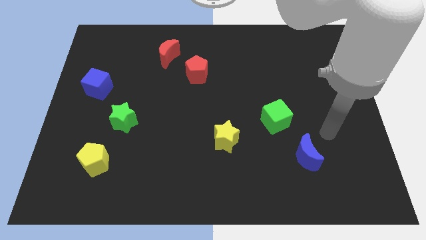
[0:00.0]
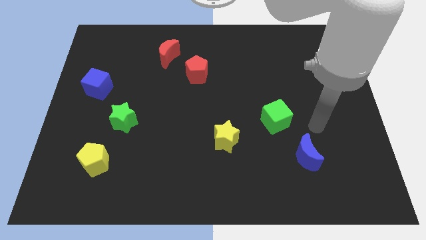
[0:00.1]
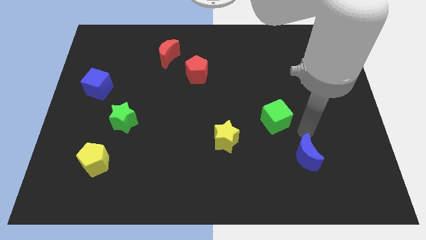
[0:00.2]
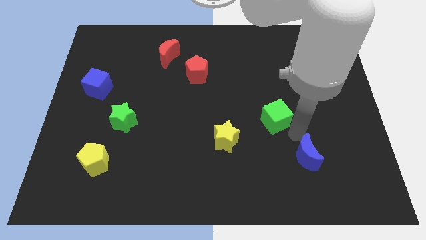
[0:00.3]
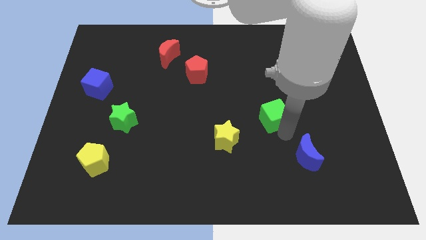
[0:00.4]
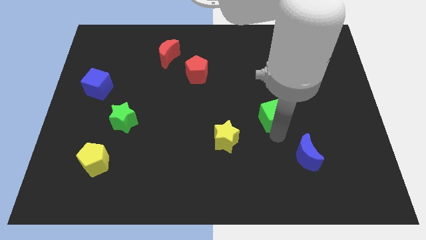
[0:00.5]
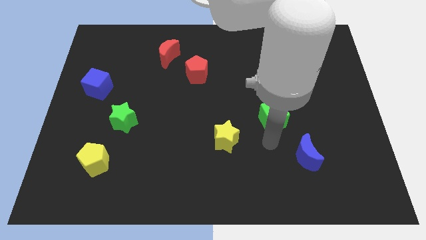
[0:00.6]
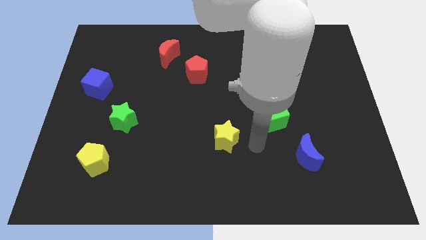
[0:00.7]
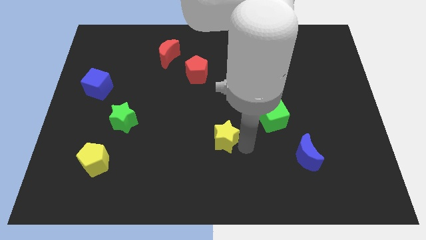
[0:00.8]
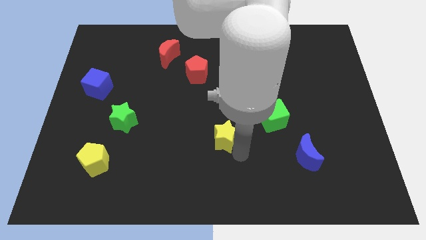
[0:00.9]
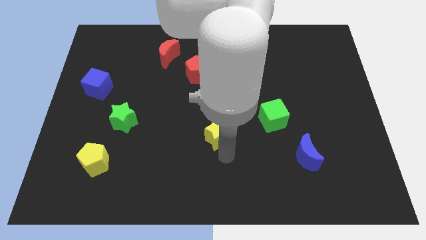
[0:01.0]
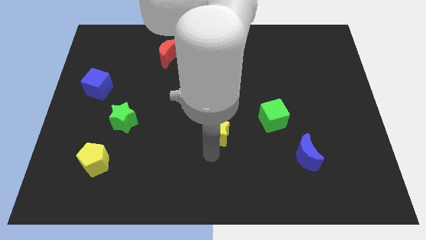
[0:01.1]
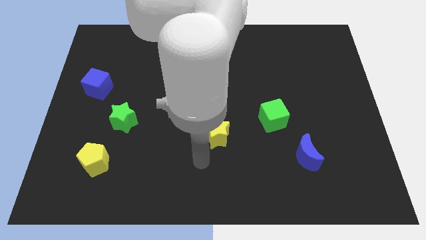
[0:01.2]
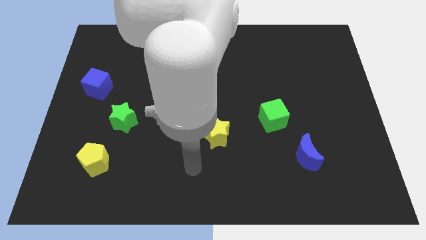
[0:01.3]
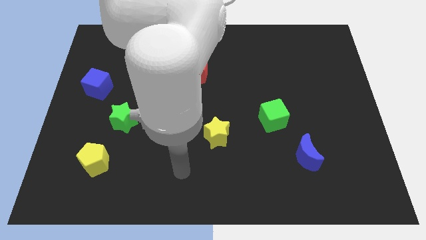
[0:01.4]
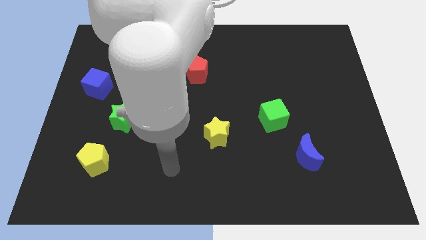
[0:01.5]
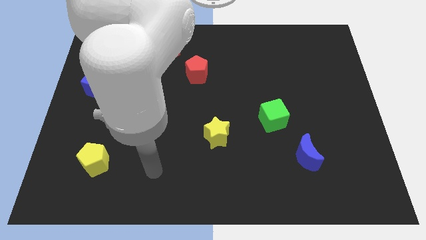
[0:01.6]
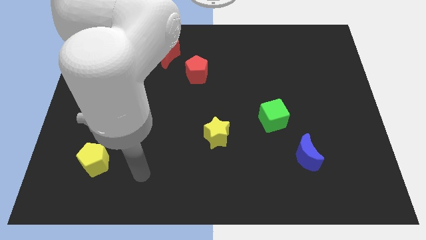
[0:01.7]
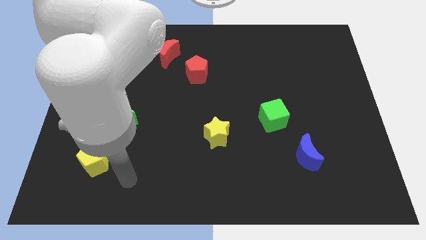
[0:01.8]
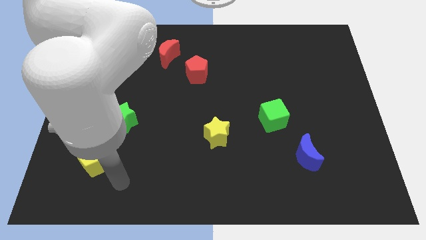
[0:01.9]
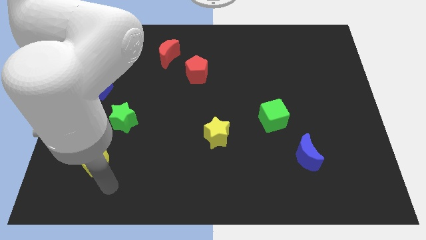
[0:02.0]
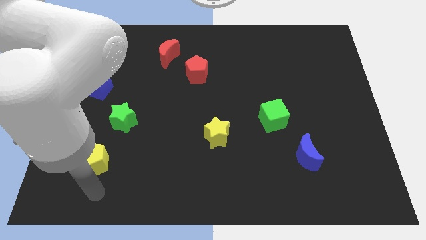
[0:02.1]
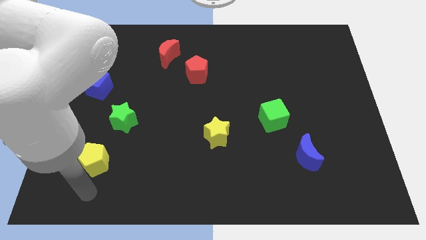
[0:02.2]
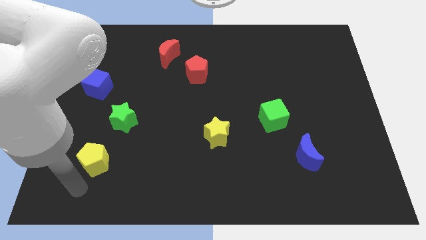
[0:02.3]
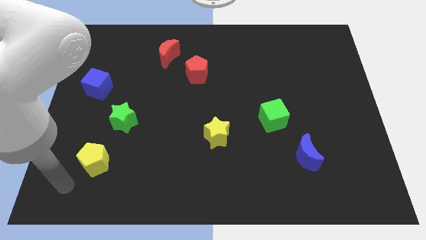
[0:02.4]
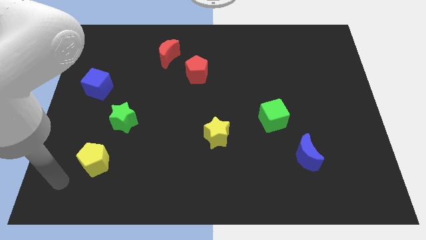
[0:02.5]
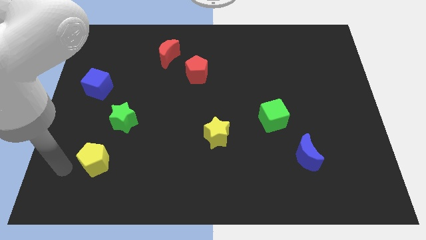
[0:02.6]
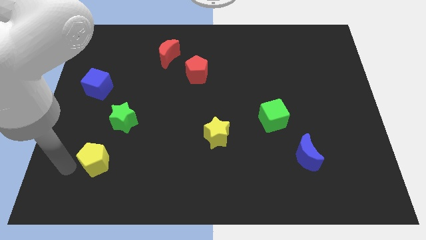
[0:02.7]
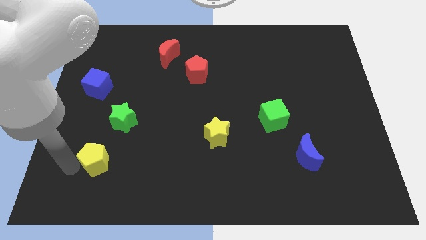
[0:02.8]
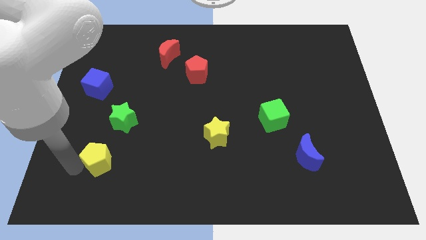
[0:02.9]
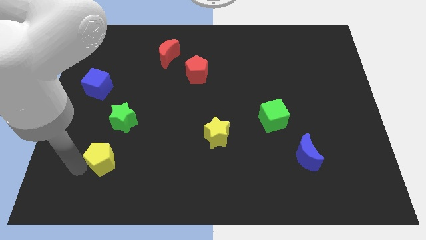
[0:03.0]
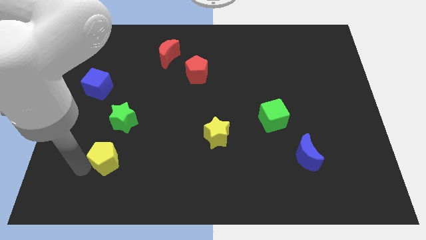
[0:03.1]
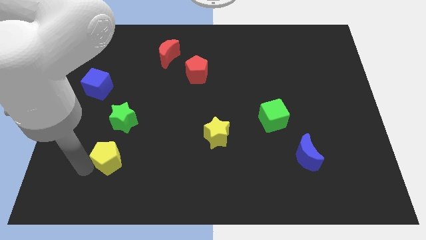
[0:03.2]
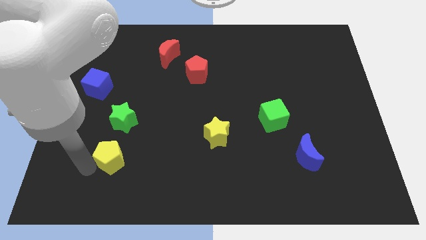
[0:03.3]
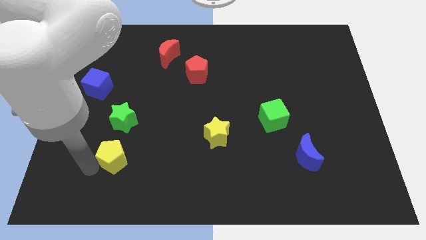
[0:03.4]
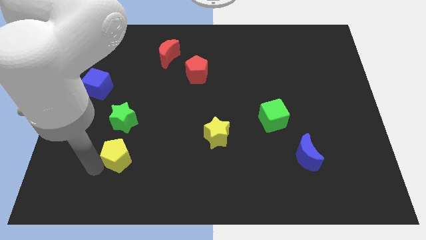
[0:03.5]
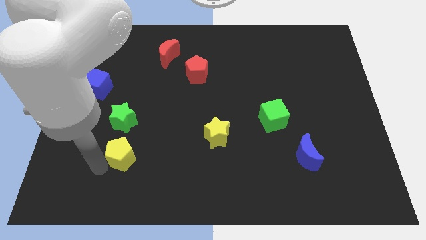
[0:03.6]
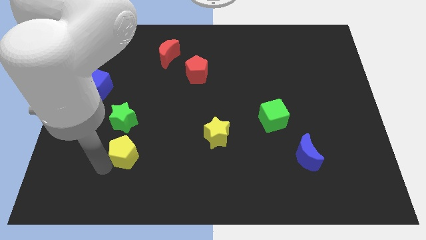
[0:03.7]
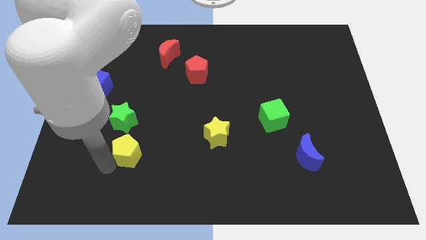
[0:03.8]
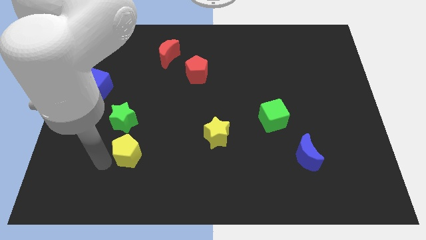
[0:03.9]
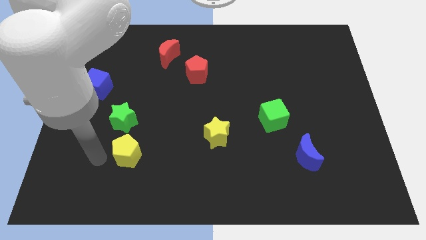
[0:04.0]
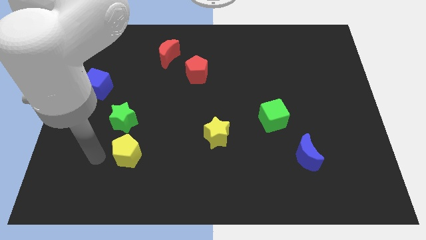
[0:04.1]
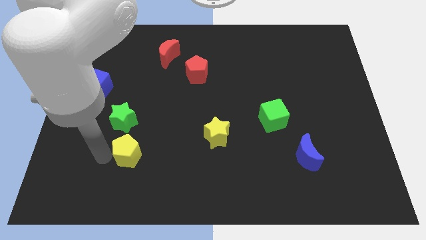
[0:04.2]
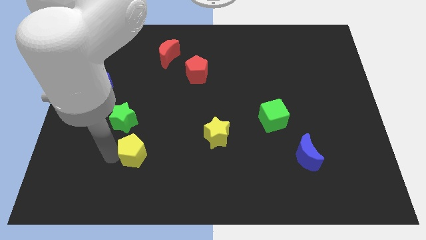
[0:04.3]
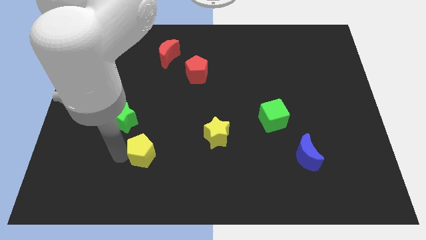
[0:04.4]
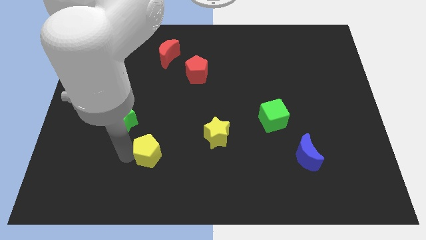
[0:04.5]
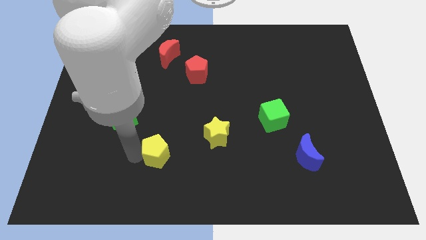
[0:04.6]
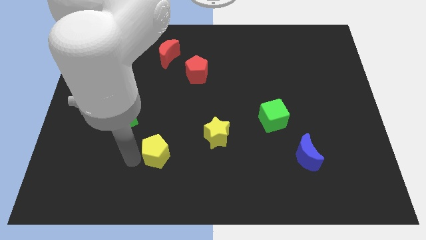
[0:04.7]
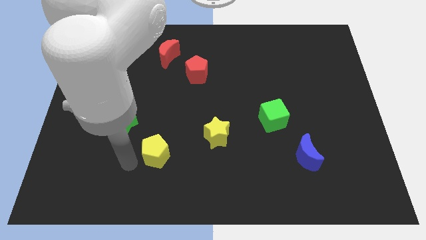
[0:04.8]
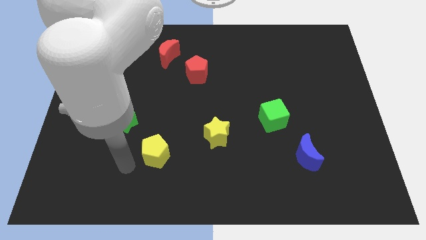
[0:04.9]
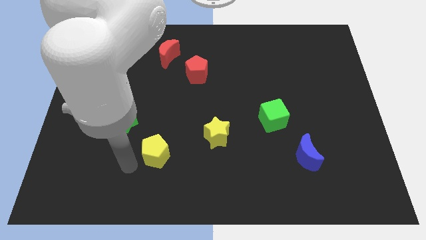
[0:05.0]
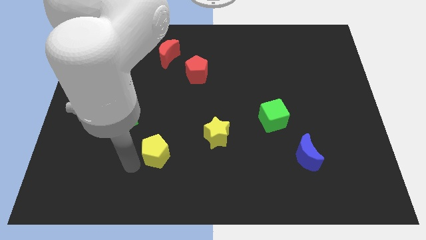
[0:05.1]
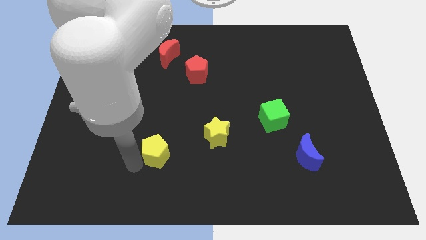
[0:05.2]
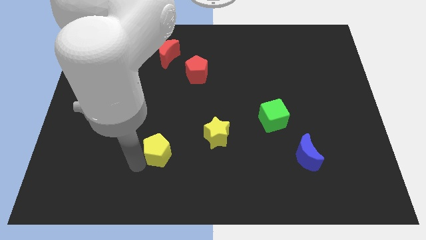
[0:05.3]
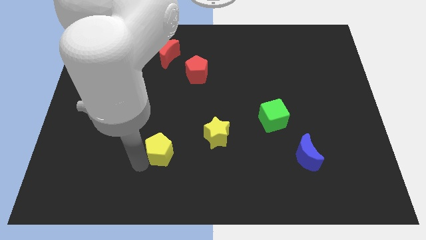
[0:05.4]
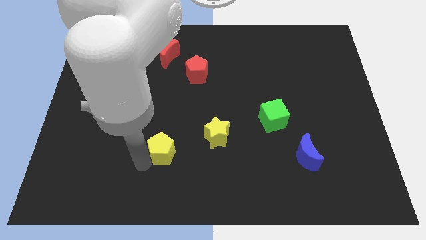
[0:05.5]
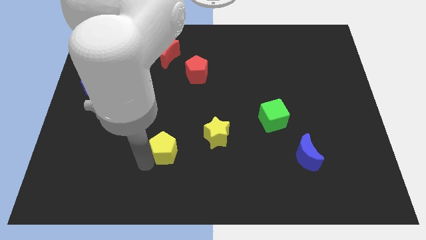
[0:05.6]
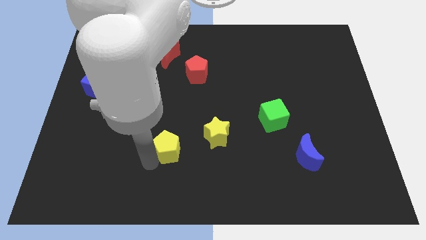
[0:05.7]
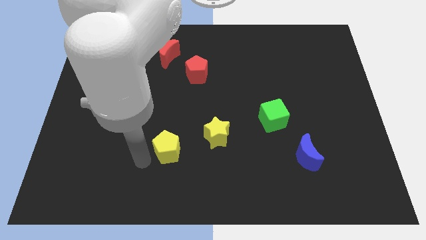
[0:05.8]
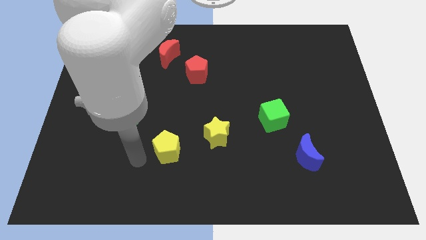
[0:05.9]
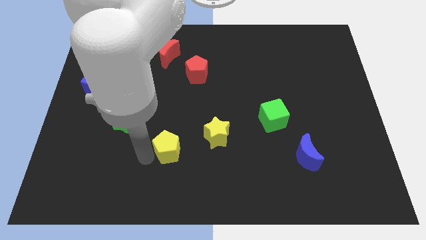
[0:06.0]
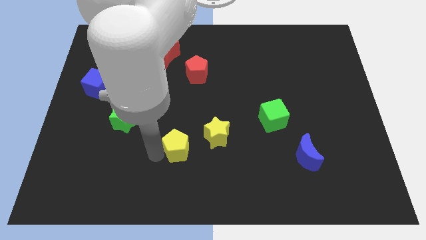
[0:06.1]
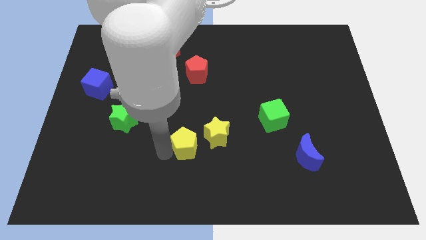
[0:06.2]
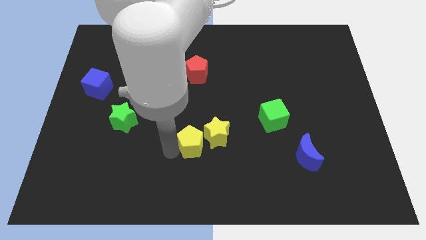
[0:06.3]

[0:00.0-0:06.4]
push the yellow pentagon close to the yellow star
